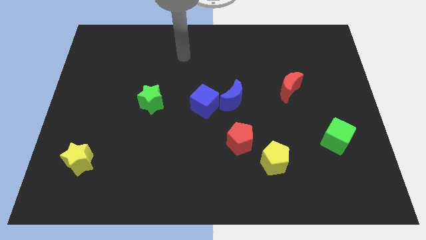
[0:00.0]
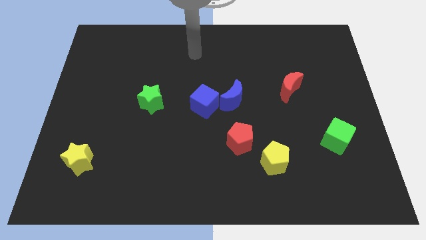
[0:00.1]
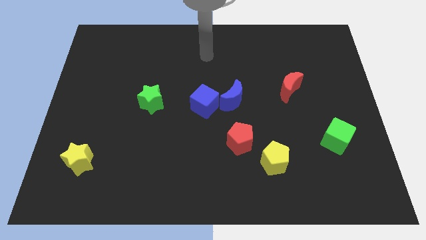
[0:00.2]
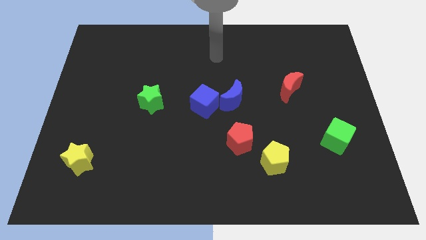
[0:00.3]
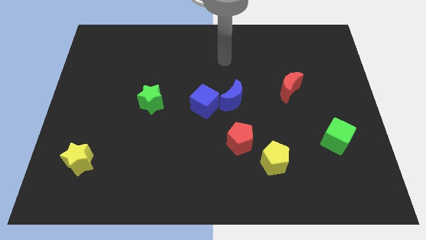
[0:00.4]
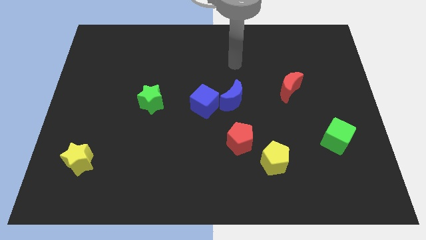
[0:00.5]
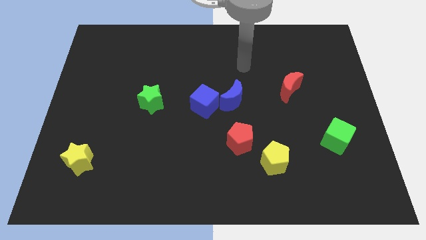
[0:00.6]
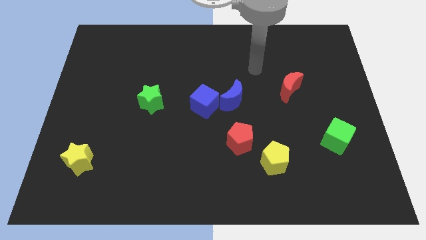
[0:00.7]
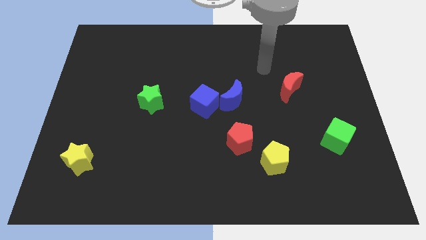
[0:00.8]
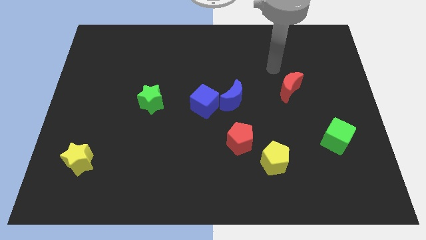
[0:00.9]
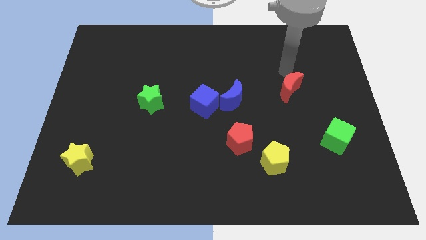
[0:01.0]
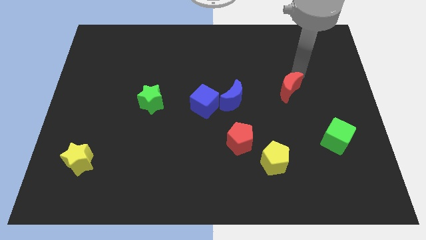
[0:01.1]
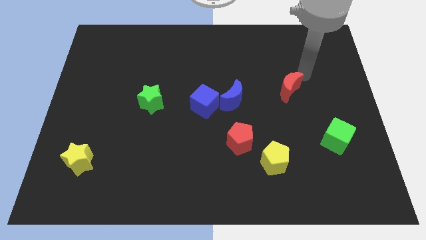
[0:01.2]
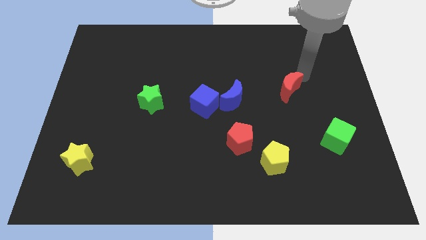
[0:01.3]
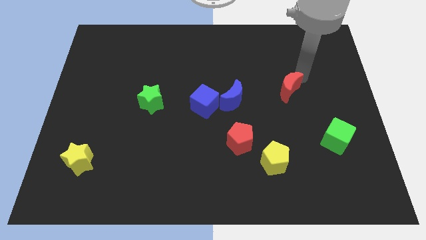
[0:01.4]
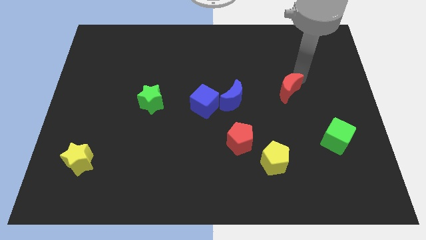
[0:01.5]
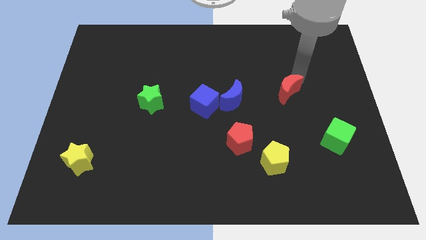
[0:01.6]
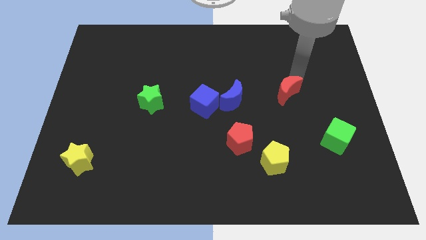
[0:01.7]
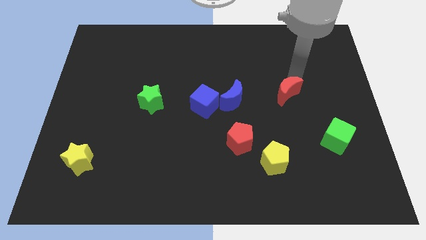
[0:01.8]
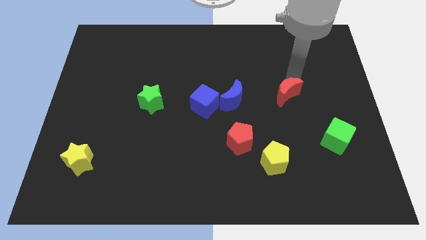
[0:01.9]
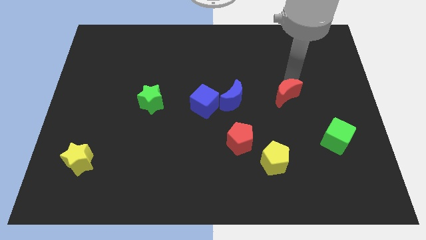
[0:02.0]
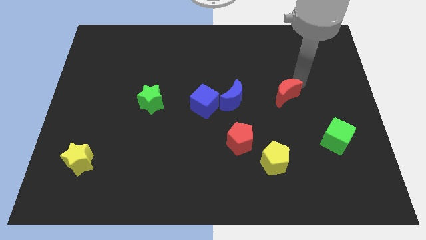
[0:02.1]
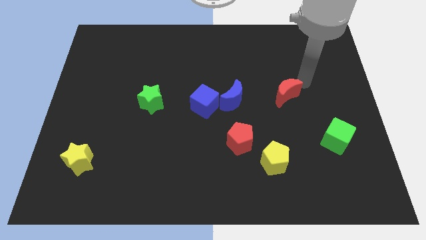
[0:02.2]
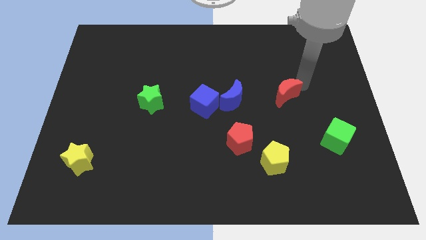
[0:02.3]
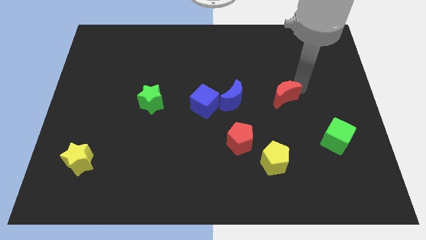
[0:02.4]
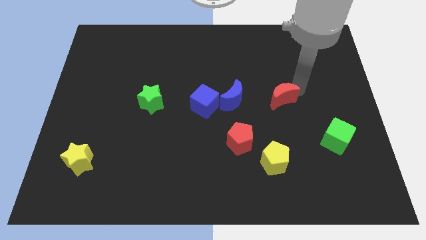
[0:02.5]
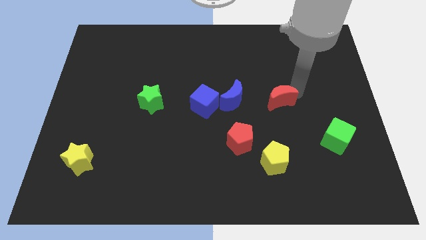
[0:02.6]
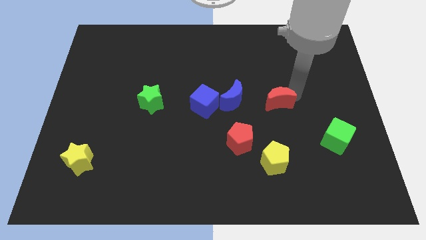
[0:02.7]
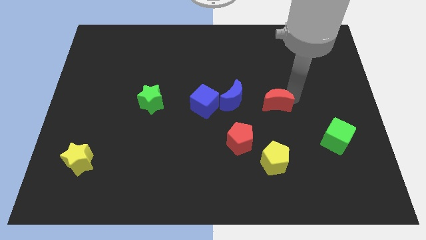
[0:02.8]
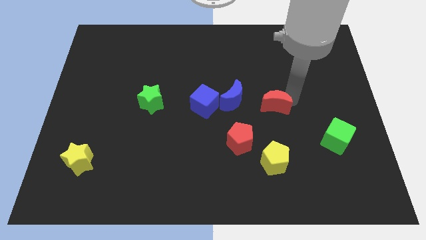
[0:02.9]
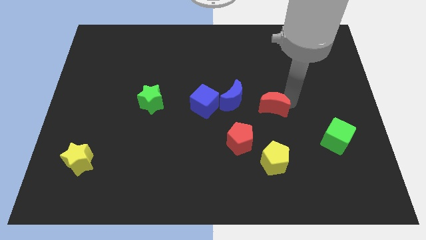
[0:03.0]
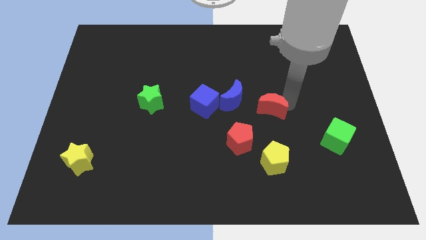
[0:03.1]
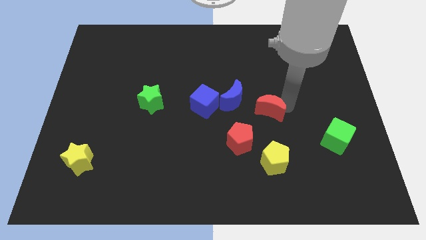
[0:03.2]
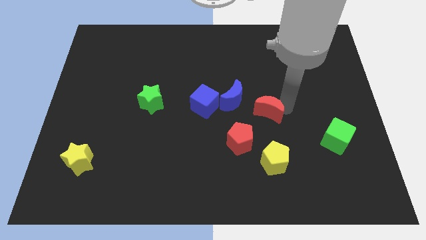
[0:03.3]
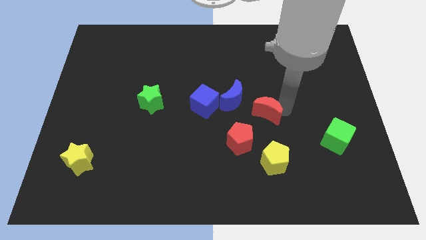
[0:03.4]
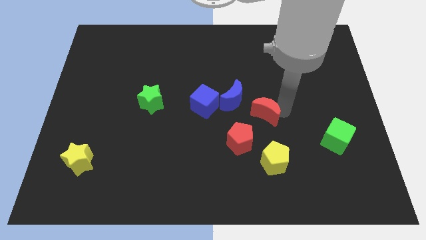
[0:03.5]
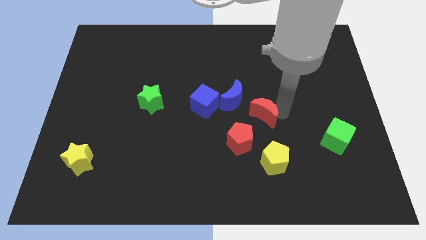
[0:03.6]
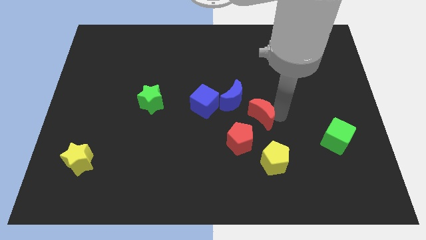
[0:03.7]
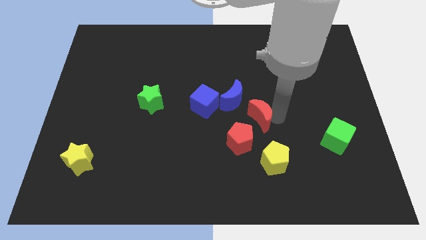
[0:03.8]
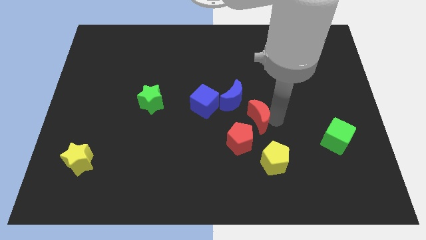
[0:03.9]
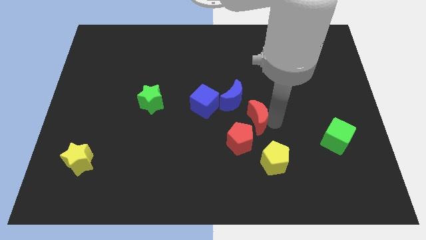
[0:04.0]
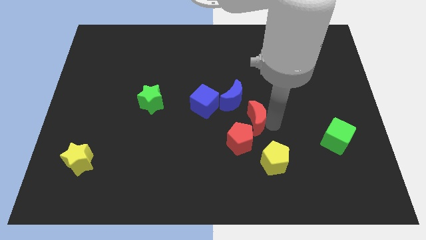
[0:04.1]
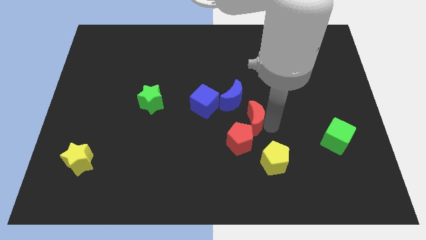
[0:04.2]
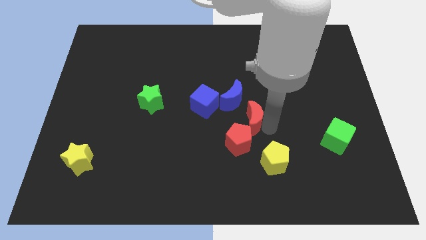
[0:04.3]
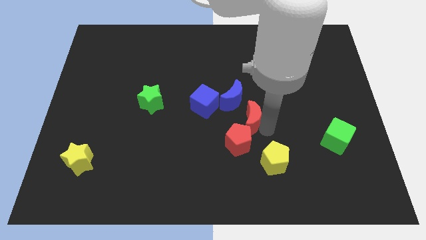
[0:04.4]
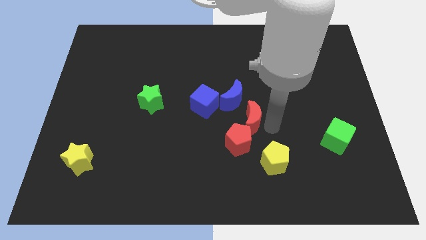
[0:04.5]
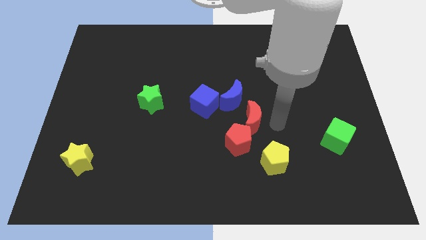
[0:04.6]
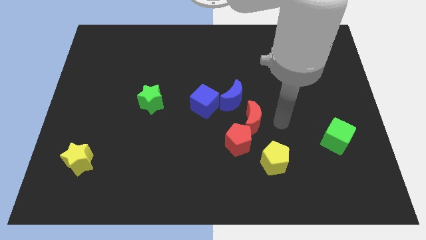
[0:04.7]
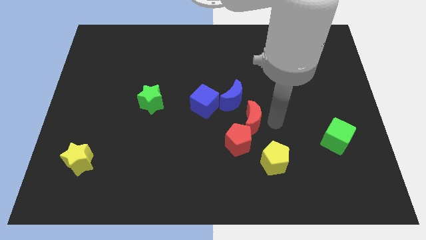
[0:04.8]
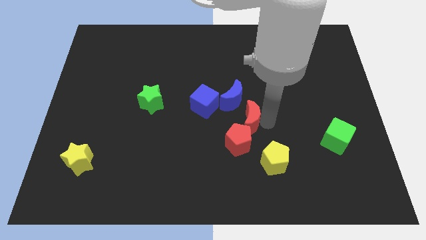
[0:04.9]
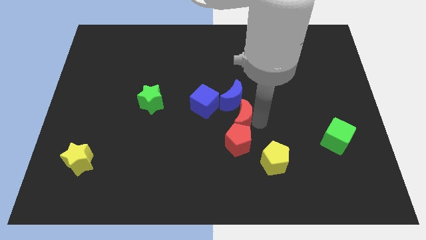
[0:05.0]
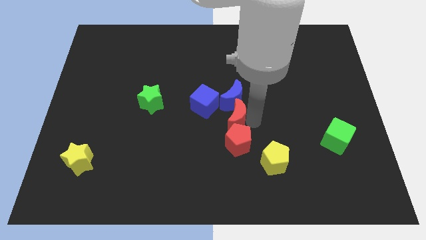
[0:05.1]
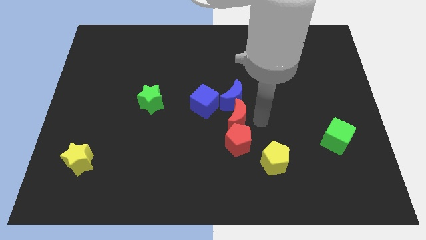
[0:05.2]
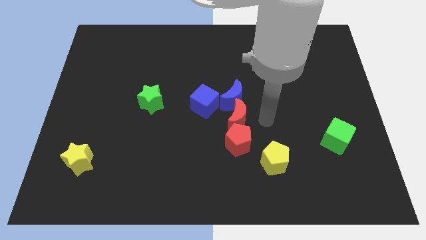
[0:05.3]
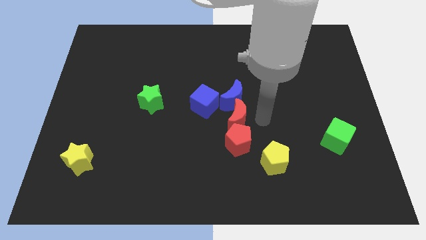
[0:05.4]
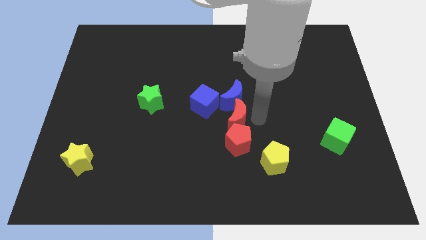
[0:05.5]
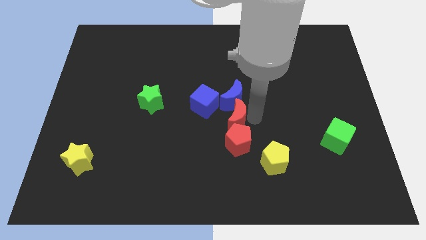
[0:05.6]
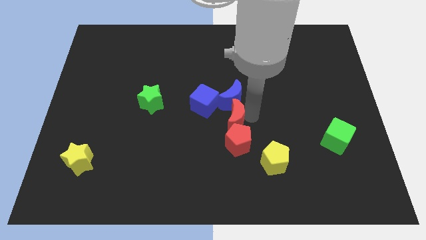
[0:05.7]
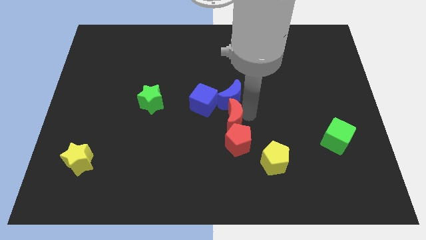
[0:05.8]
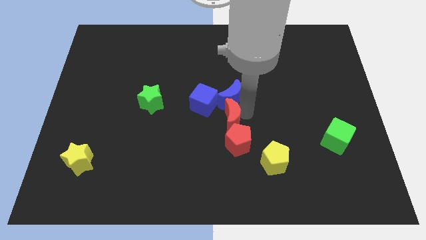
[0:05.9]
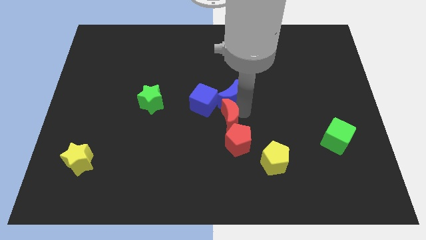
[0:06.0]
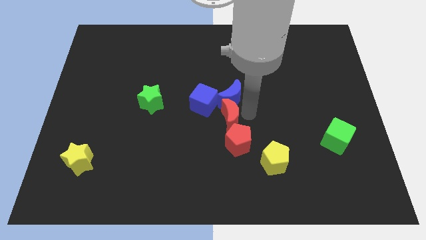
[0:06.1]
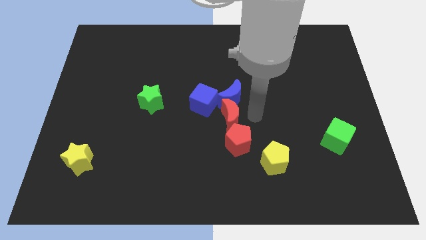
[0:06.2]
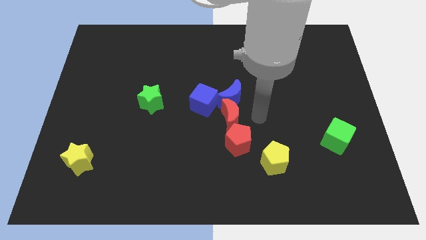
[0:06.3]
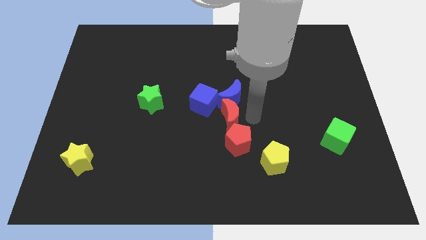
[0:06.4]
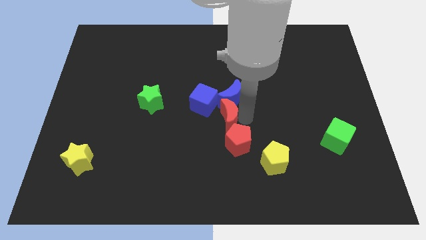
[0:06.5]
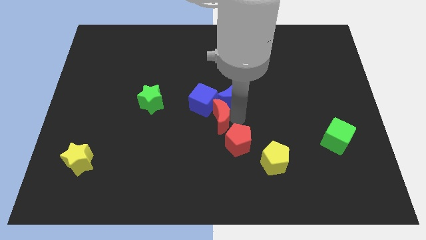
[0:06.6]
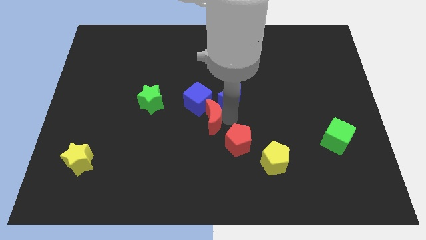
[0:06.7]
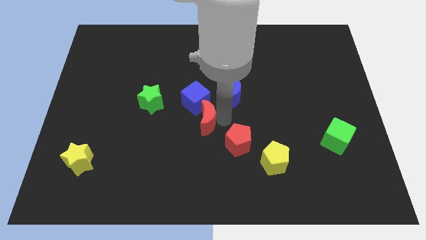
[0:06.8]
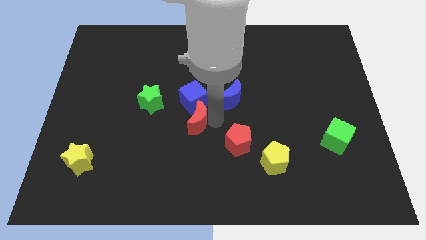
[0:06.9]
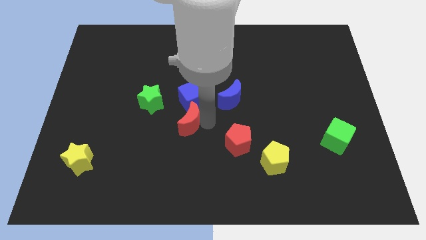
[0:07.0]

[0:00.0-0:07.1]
push the red moon to the bottom right of the green star

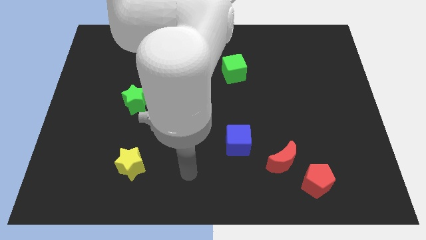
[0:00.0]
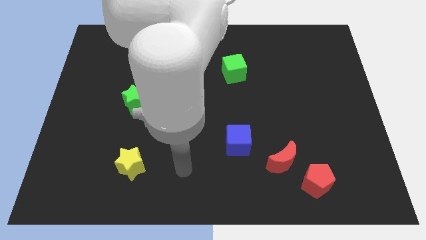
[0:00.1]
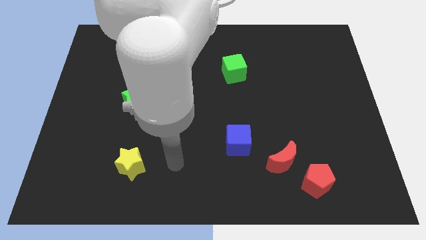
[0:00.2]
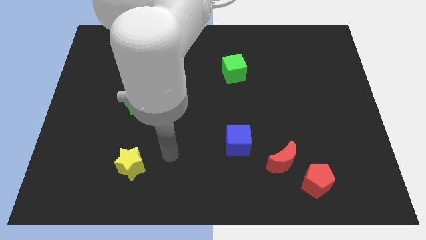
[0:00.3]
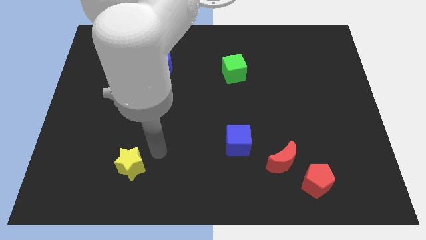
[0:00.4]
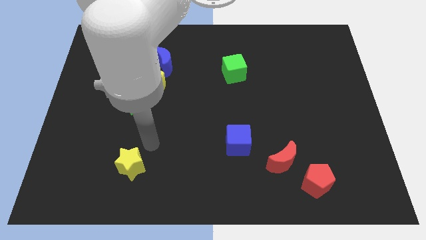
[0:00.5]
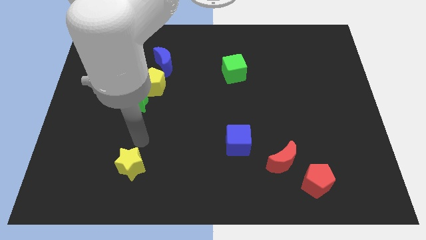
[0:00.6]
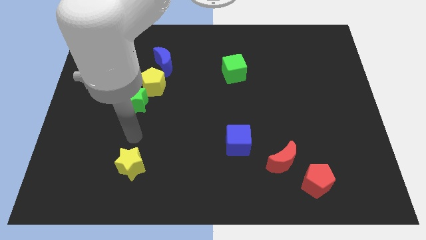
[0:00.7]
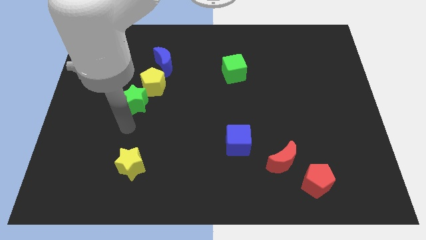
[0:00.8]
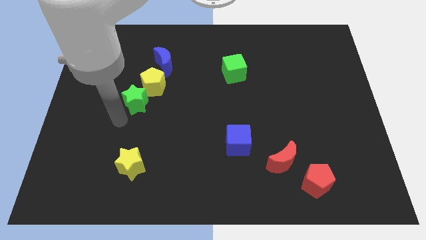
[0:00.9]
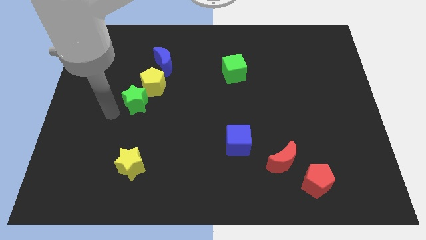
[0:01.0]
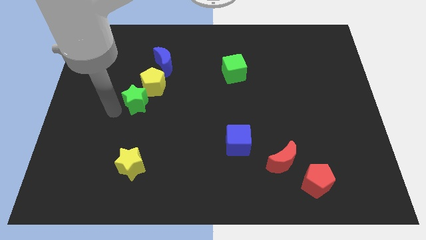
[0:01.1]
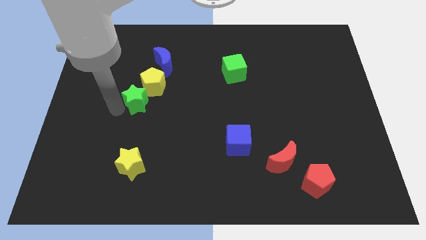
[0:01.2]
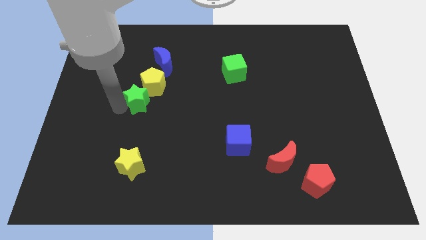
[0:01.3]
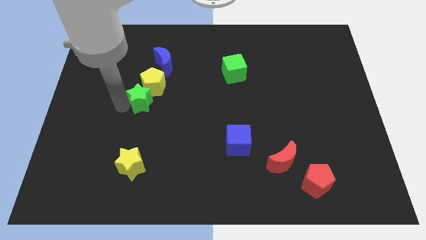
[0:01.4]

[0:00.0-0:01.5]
slide the green star to the bottom of the blue moon
